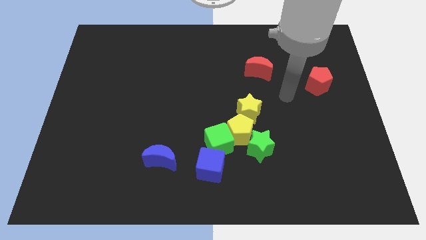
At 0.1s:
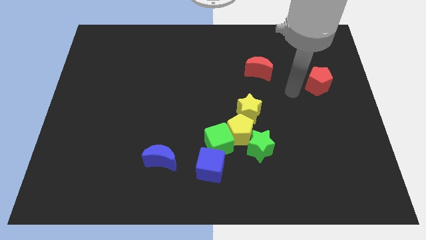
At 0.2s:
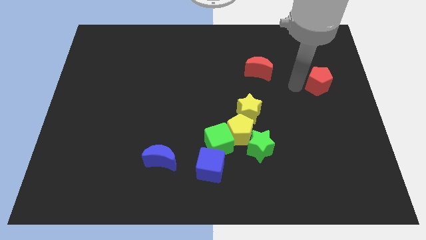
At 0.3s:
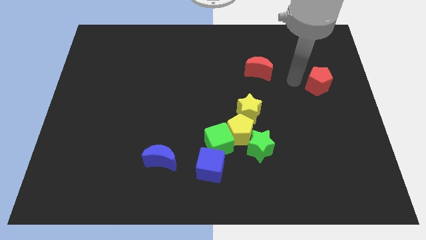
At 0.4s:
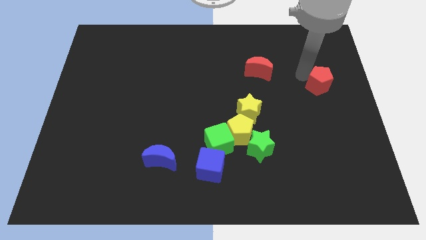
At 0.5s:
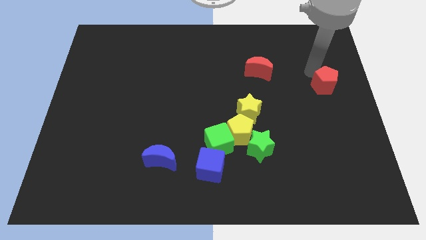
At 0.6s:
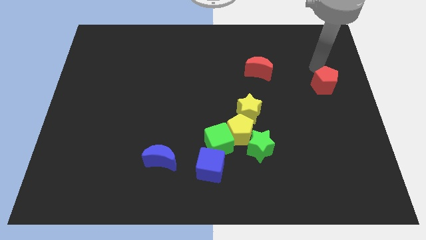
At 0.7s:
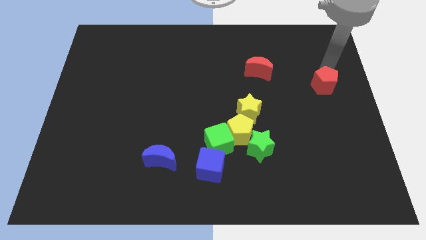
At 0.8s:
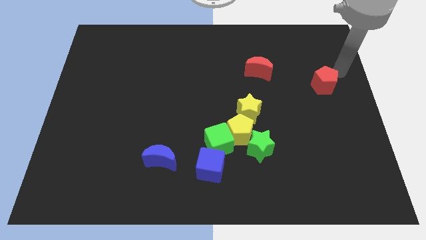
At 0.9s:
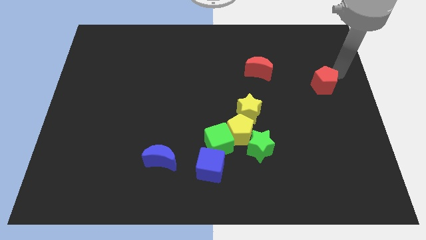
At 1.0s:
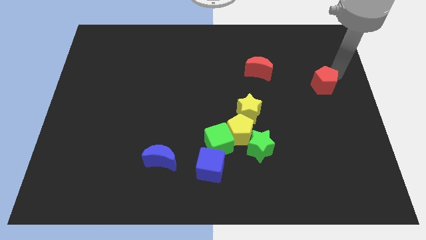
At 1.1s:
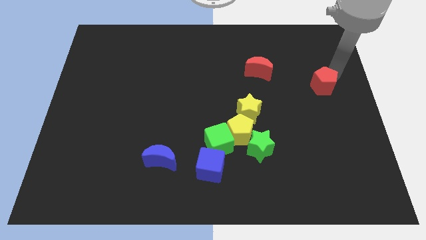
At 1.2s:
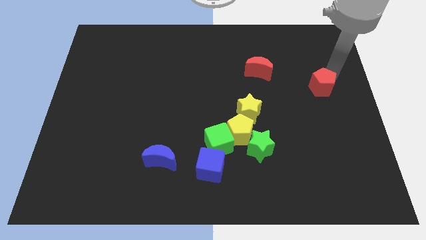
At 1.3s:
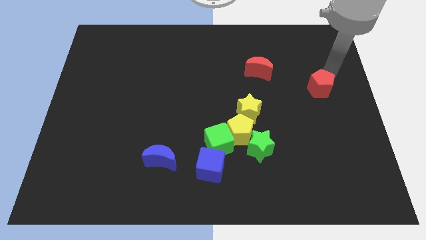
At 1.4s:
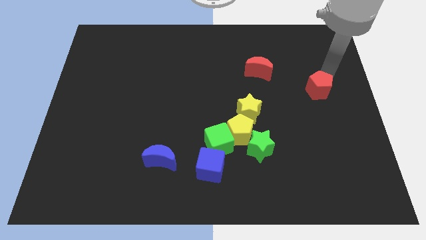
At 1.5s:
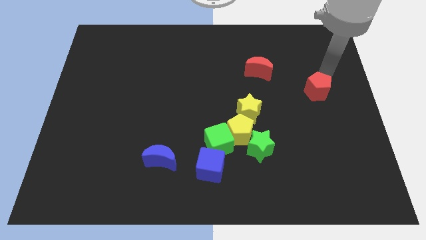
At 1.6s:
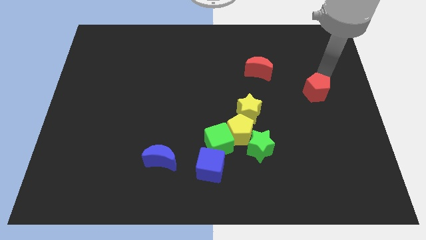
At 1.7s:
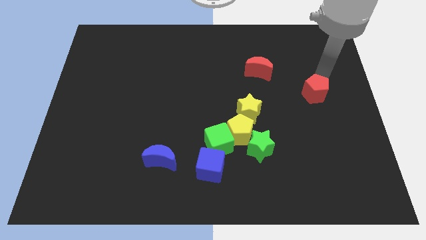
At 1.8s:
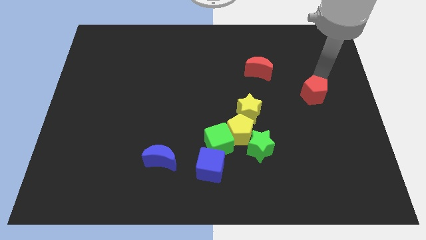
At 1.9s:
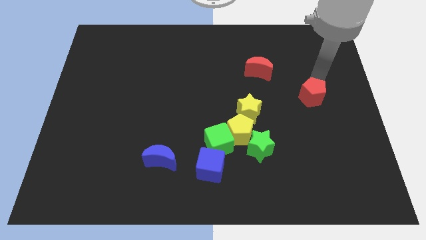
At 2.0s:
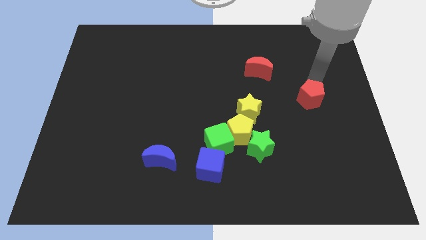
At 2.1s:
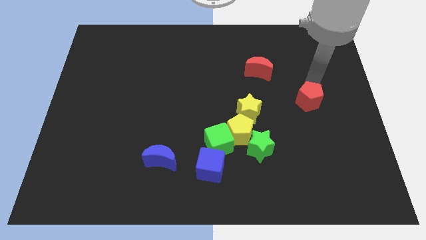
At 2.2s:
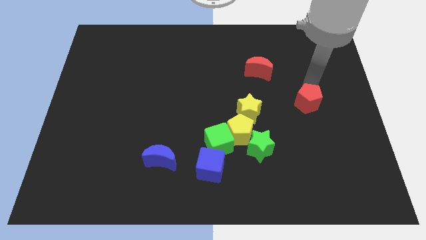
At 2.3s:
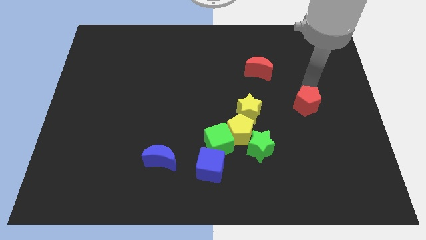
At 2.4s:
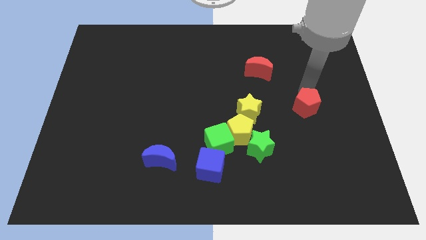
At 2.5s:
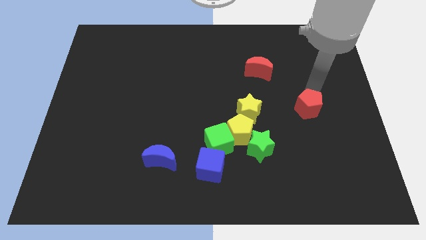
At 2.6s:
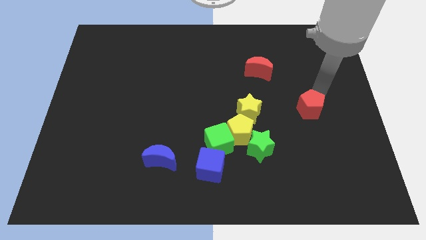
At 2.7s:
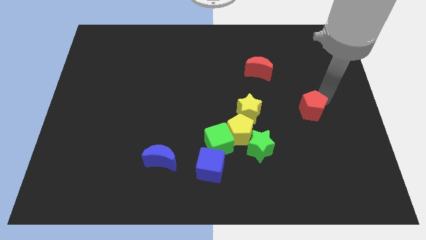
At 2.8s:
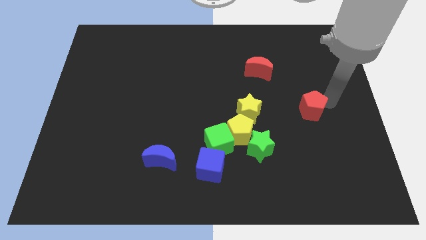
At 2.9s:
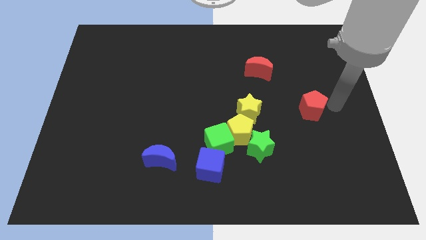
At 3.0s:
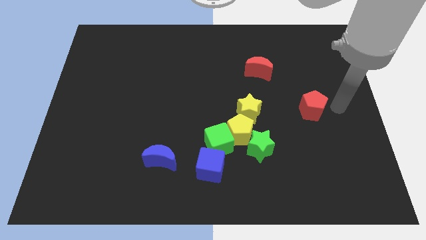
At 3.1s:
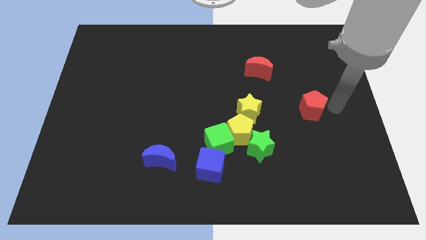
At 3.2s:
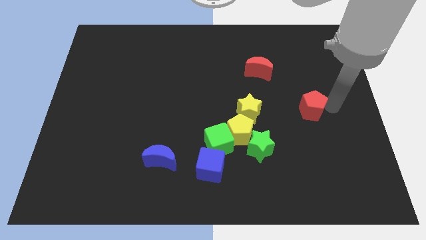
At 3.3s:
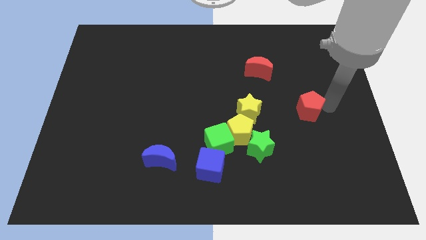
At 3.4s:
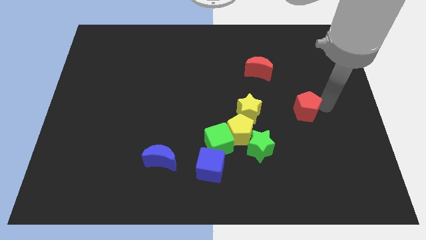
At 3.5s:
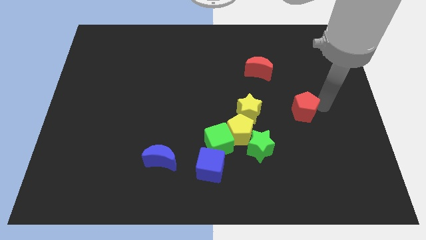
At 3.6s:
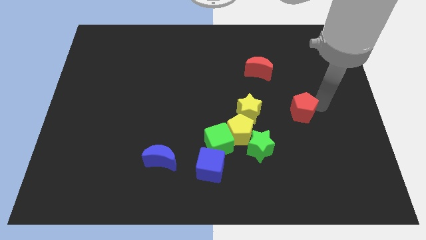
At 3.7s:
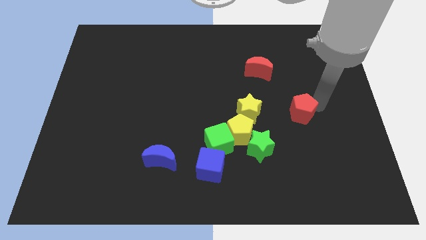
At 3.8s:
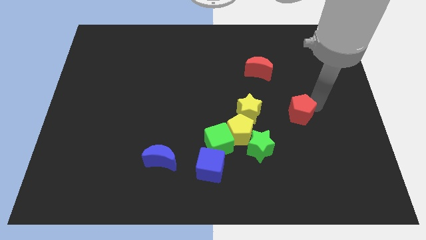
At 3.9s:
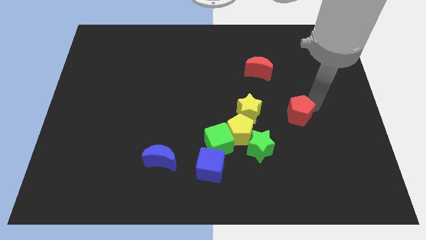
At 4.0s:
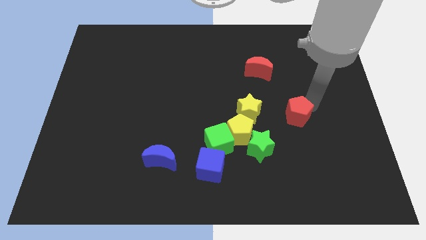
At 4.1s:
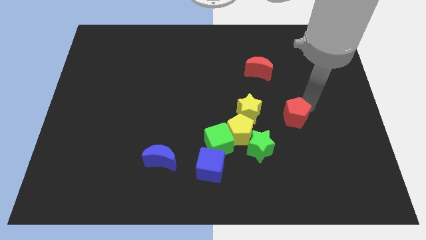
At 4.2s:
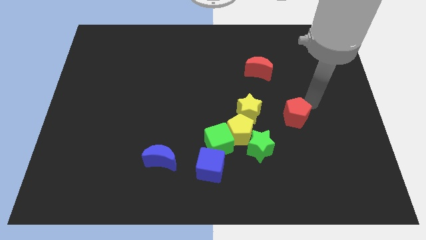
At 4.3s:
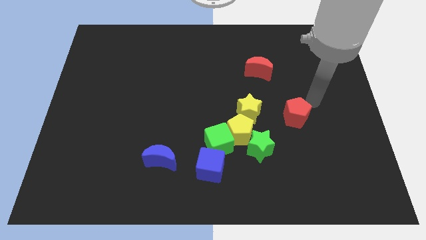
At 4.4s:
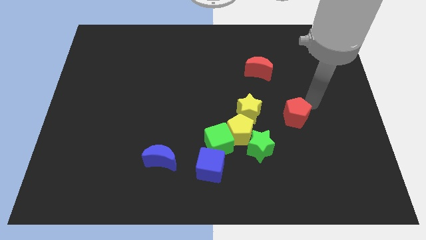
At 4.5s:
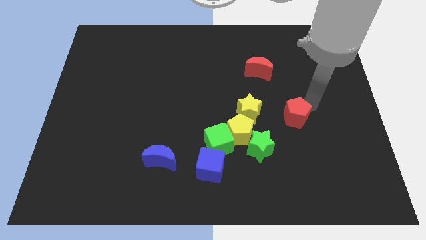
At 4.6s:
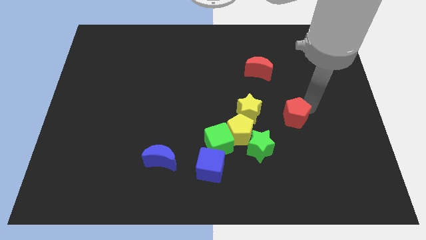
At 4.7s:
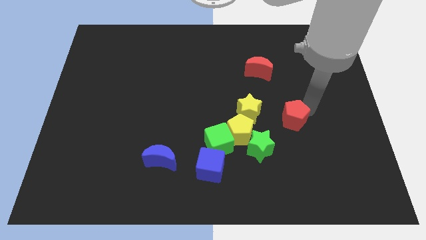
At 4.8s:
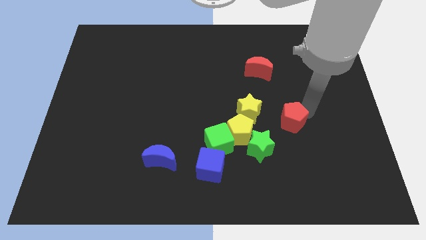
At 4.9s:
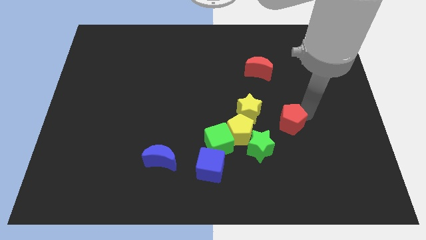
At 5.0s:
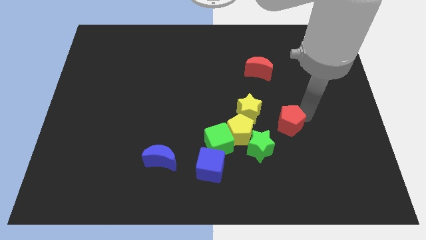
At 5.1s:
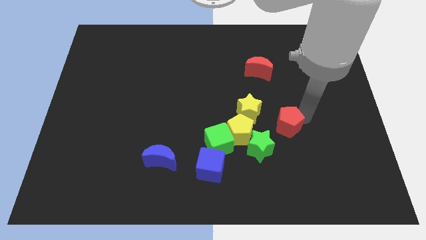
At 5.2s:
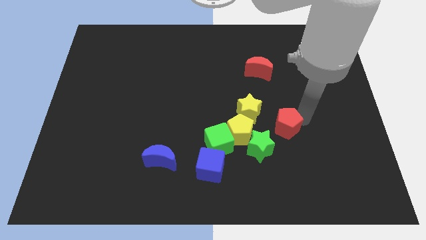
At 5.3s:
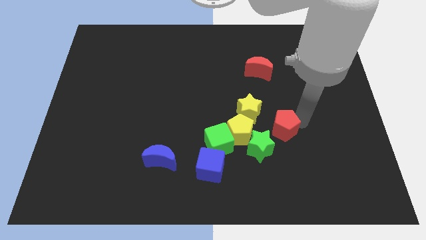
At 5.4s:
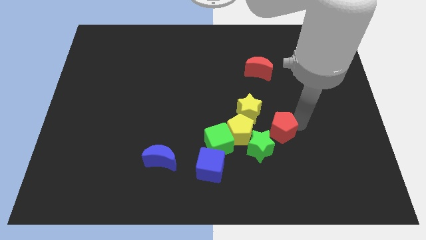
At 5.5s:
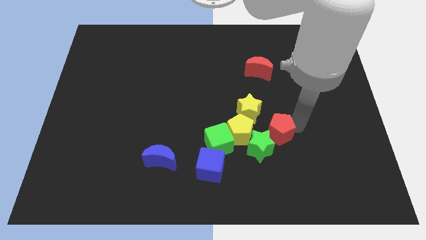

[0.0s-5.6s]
slide the red pentagon towards the green star

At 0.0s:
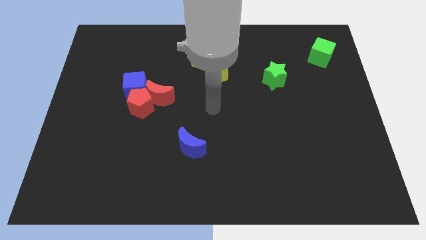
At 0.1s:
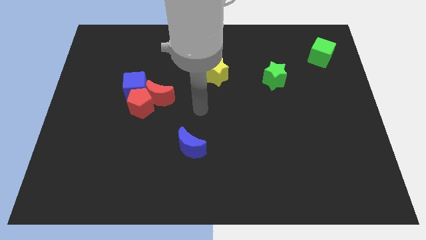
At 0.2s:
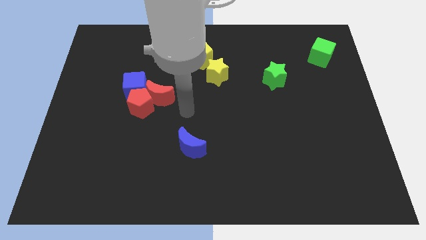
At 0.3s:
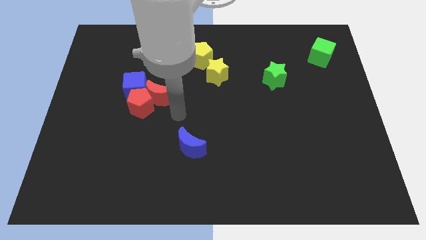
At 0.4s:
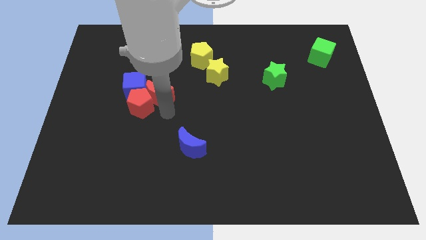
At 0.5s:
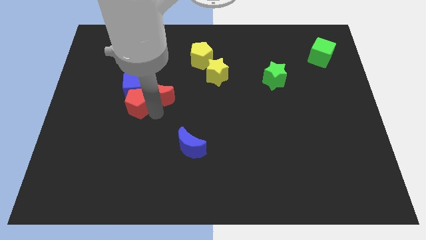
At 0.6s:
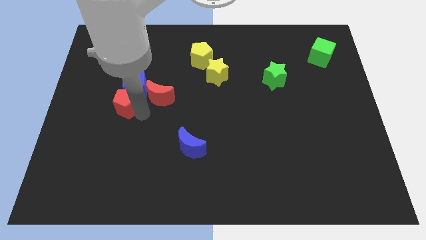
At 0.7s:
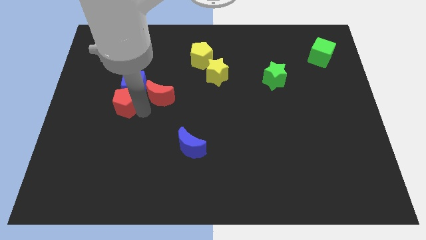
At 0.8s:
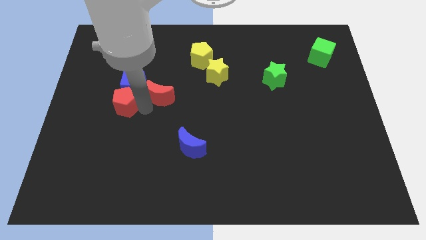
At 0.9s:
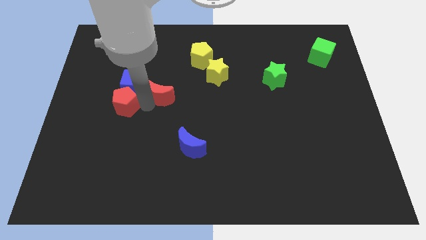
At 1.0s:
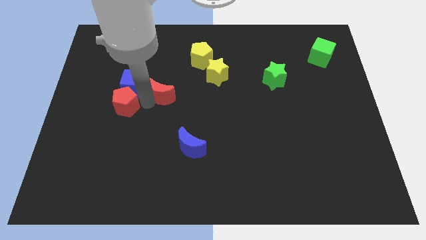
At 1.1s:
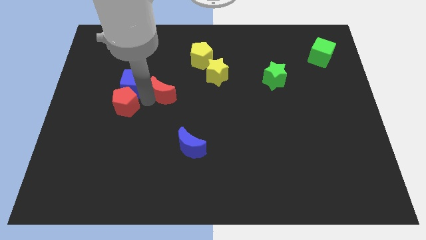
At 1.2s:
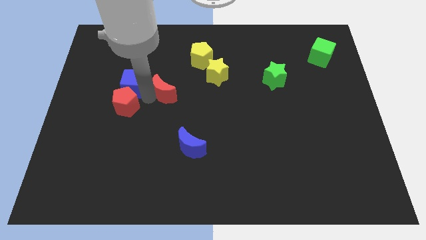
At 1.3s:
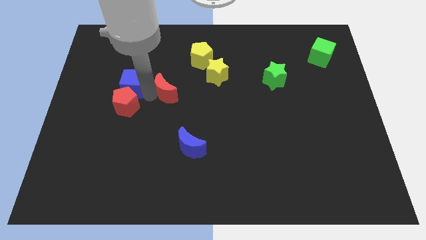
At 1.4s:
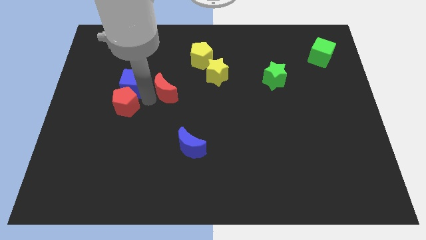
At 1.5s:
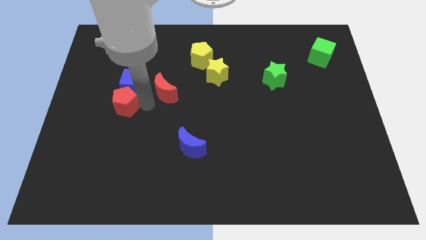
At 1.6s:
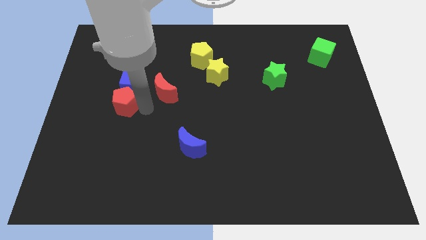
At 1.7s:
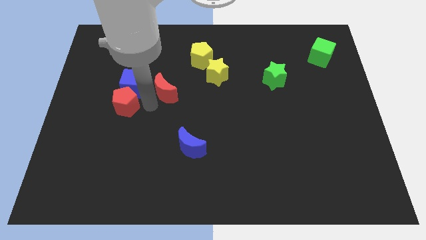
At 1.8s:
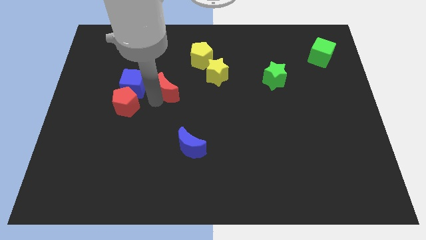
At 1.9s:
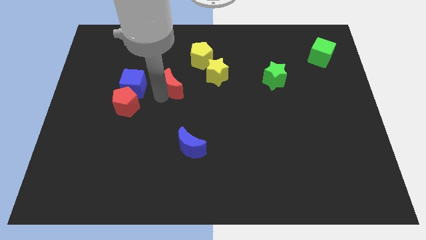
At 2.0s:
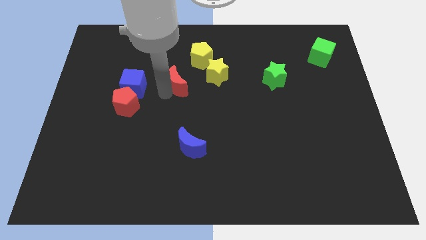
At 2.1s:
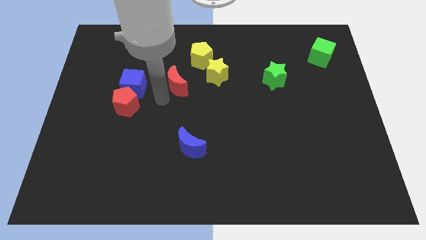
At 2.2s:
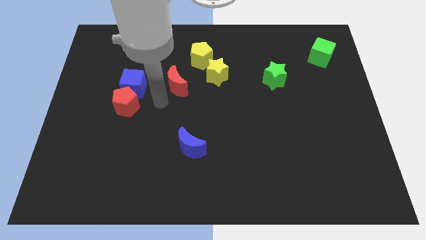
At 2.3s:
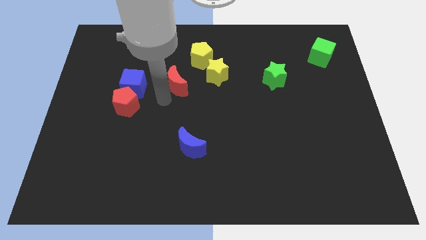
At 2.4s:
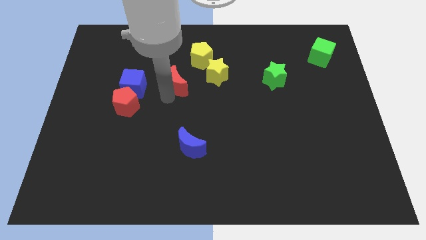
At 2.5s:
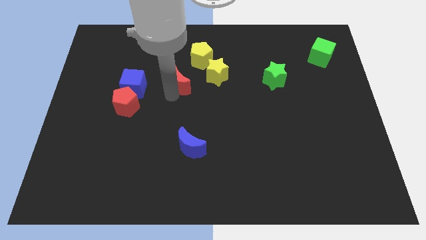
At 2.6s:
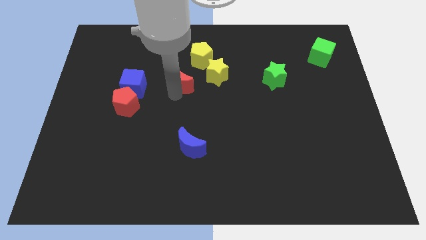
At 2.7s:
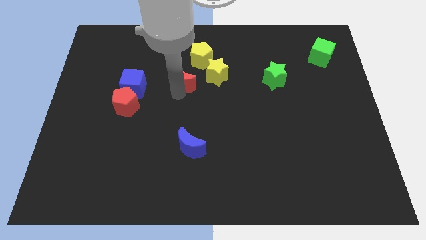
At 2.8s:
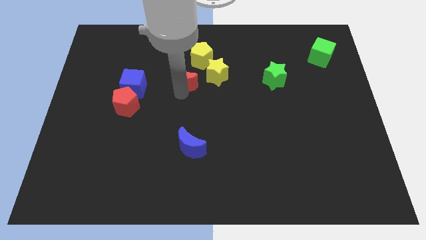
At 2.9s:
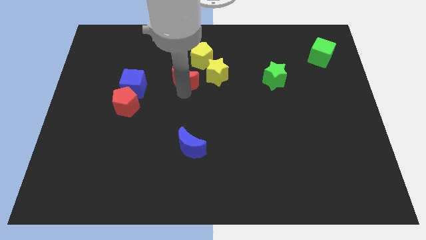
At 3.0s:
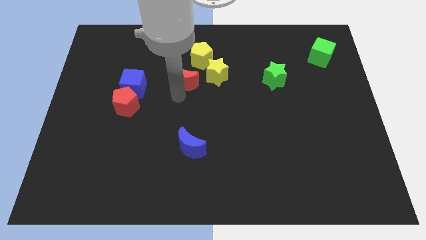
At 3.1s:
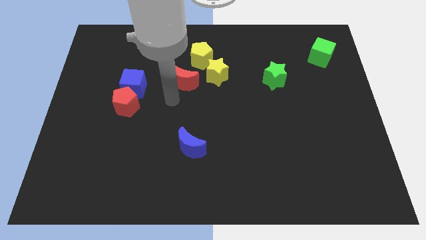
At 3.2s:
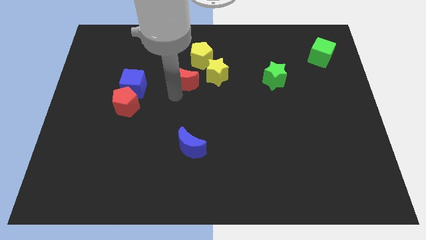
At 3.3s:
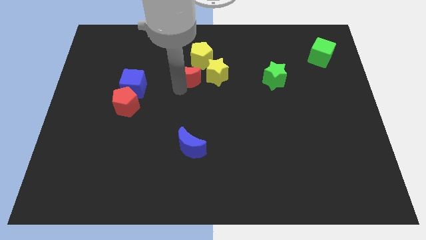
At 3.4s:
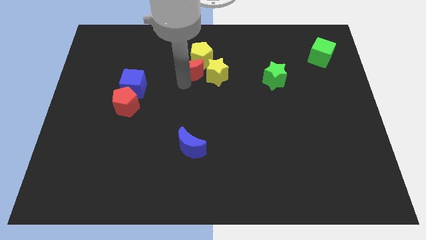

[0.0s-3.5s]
move the red moon towards the yellow pentagon
